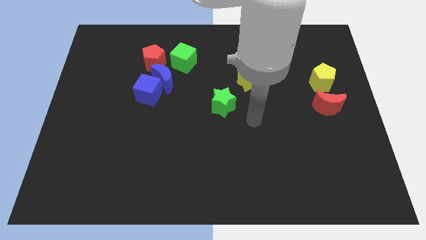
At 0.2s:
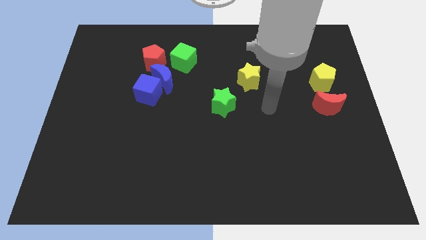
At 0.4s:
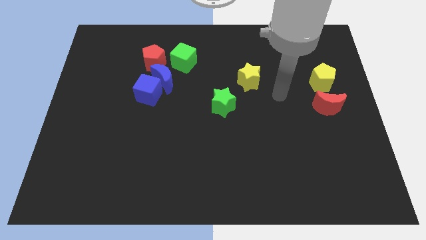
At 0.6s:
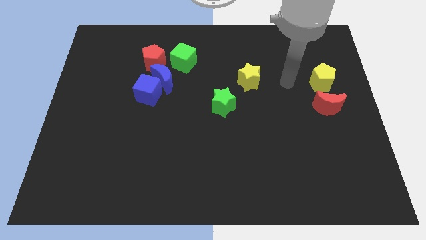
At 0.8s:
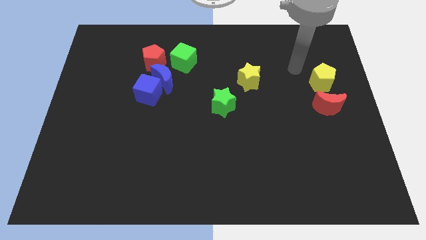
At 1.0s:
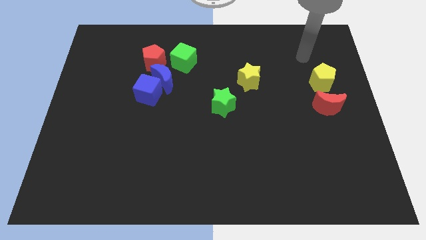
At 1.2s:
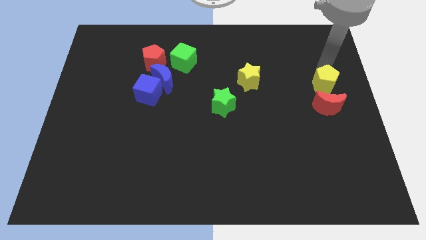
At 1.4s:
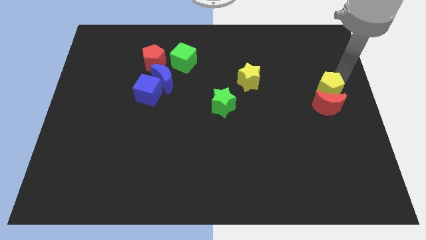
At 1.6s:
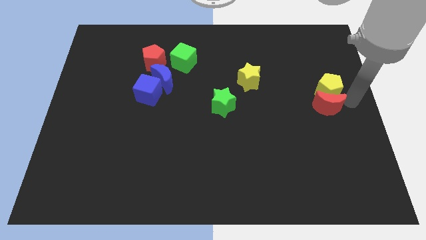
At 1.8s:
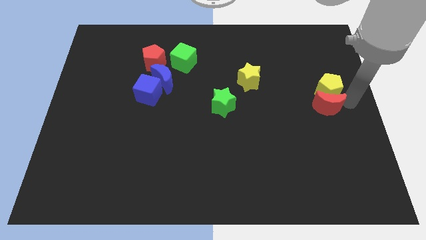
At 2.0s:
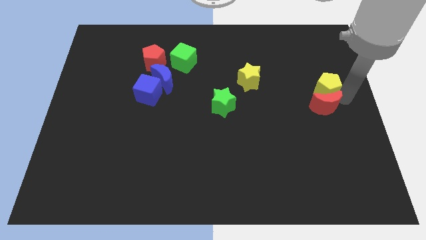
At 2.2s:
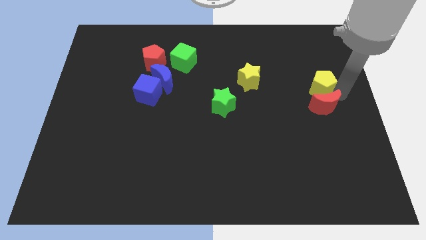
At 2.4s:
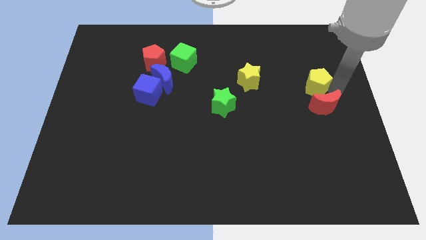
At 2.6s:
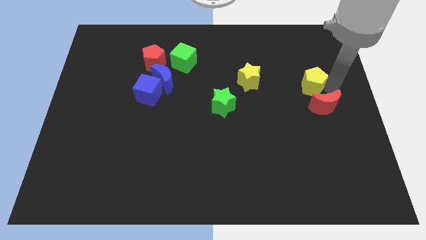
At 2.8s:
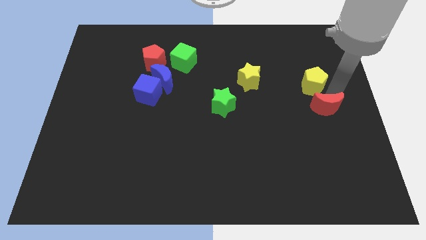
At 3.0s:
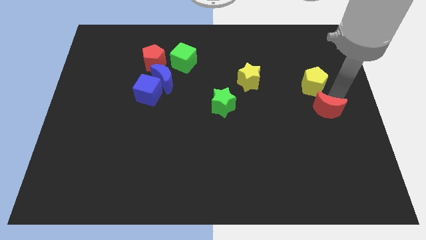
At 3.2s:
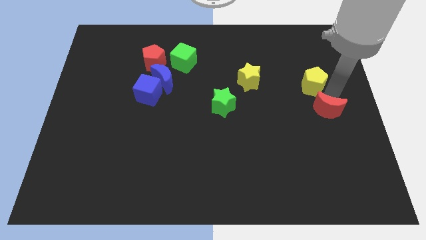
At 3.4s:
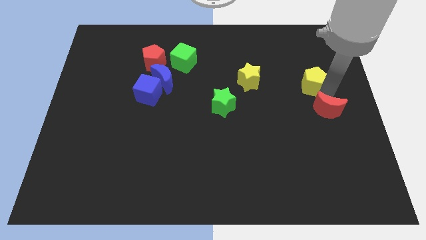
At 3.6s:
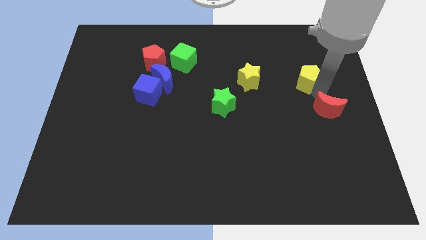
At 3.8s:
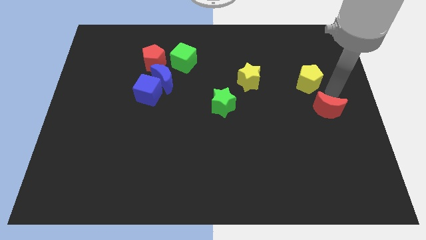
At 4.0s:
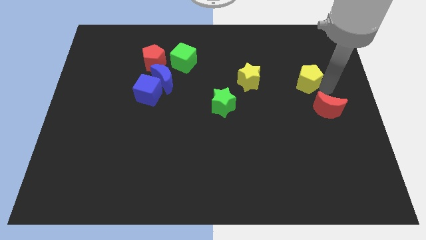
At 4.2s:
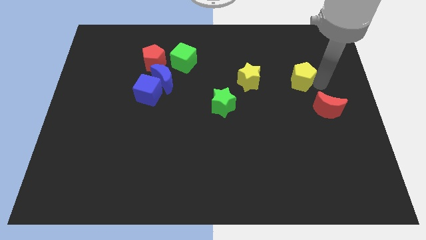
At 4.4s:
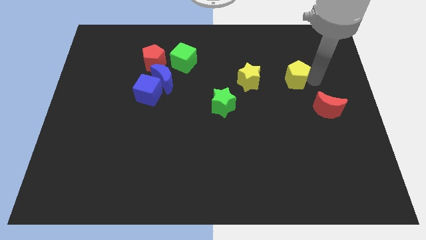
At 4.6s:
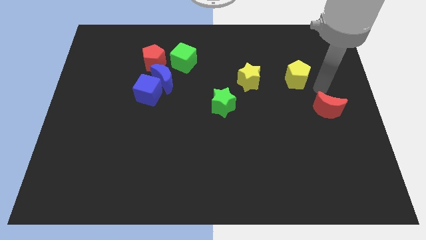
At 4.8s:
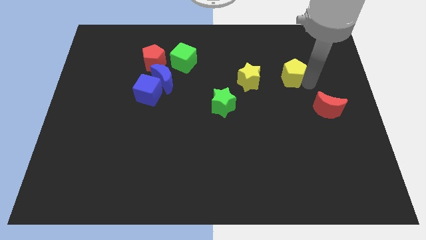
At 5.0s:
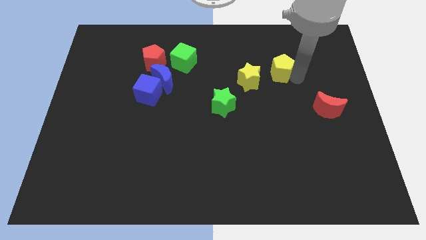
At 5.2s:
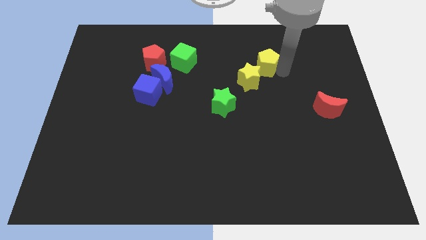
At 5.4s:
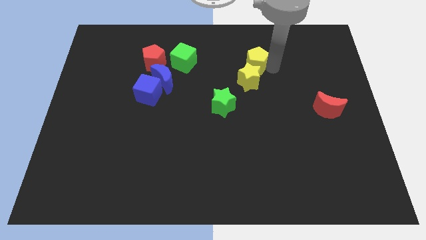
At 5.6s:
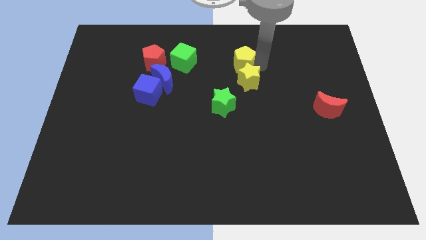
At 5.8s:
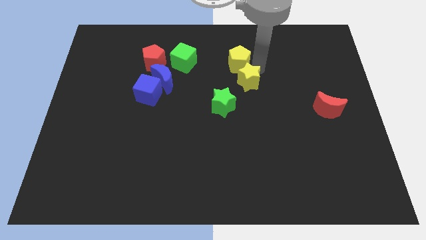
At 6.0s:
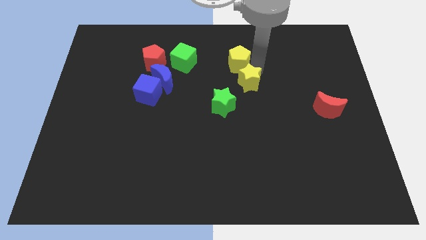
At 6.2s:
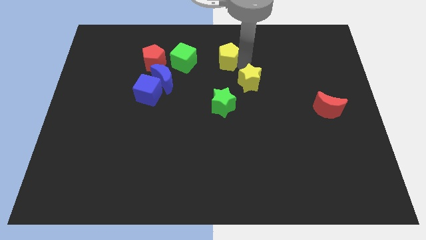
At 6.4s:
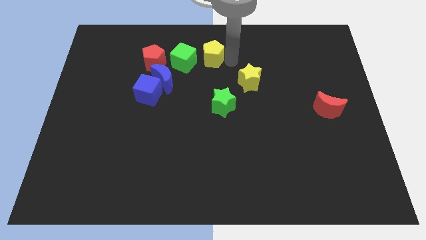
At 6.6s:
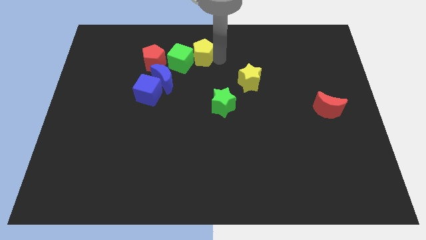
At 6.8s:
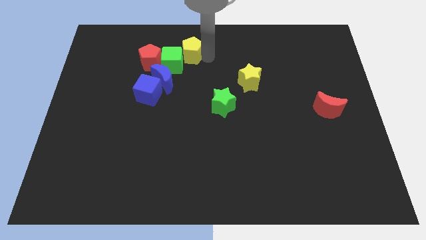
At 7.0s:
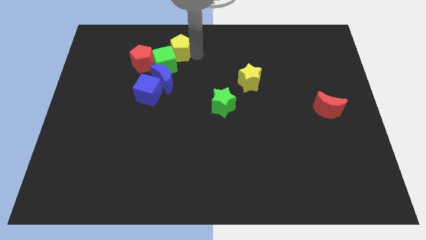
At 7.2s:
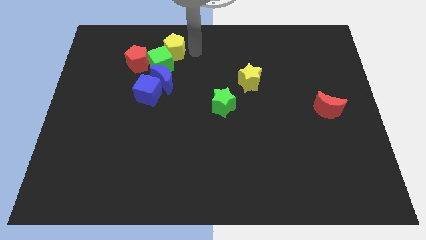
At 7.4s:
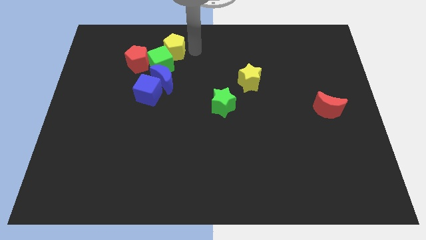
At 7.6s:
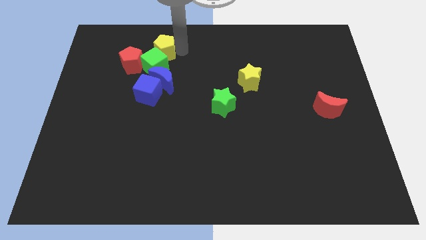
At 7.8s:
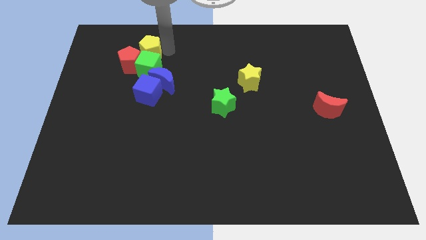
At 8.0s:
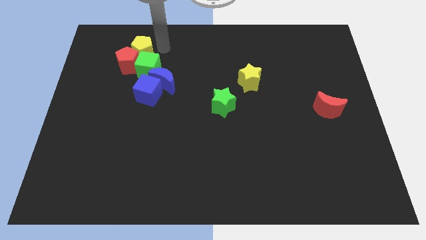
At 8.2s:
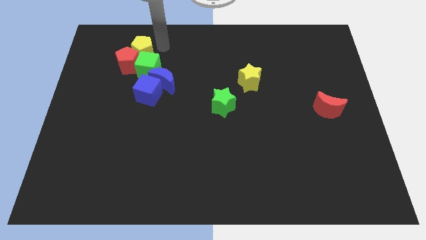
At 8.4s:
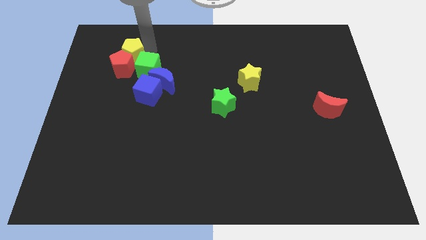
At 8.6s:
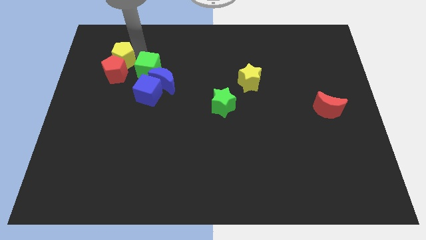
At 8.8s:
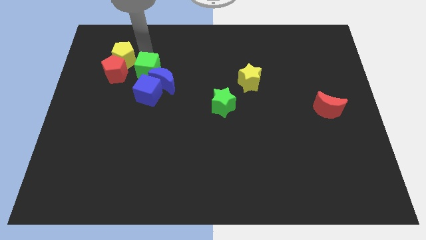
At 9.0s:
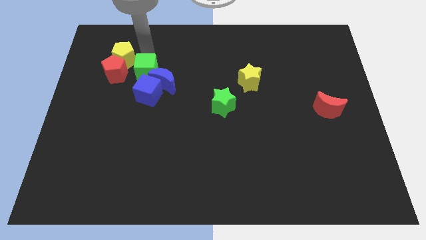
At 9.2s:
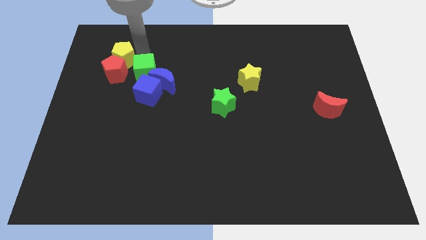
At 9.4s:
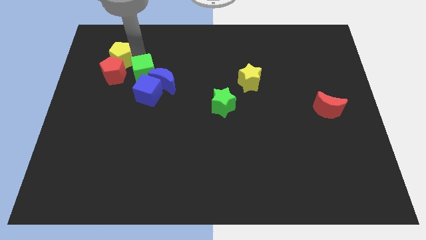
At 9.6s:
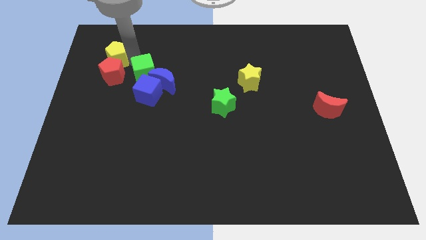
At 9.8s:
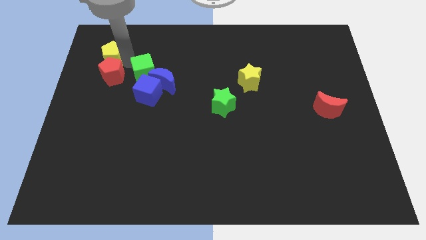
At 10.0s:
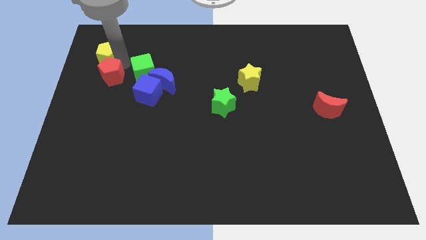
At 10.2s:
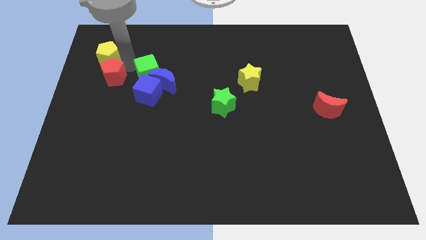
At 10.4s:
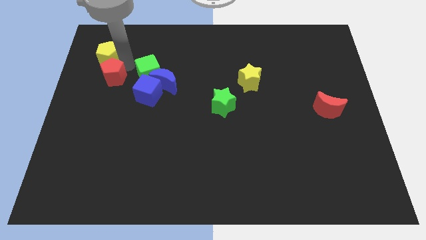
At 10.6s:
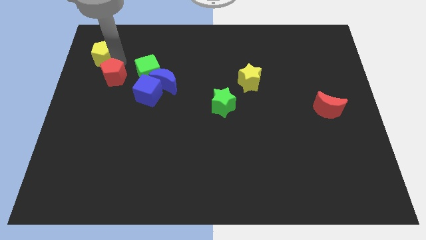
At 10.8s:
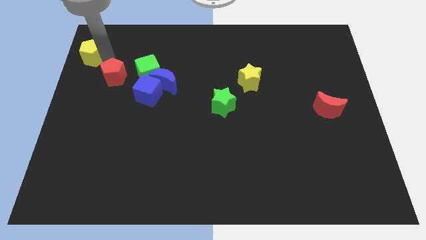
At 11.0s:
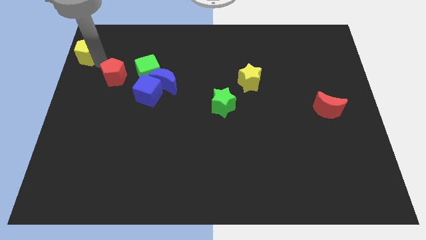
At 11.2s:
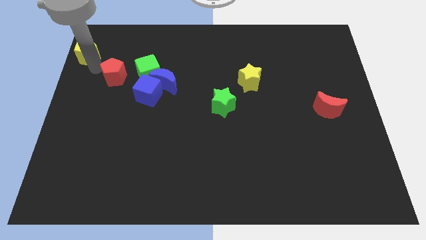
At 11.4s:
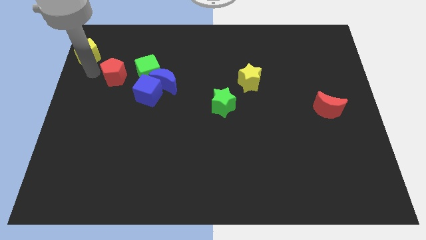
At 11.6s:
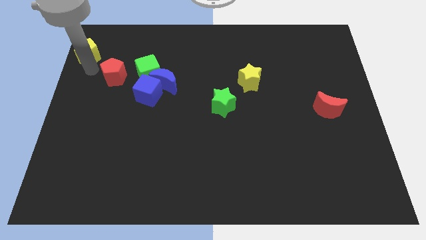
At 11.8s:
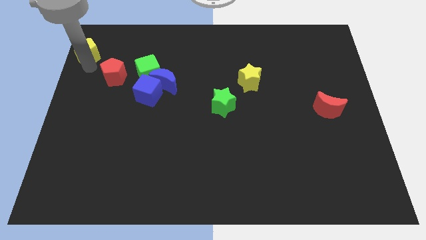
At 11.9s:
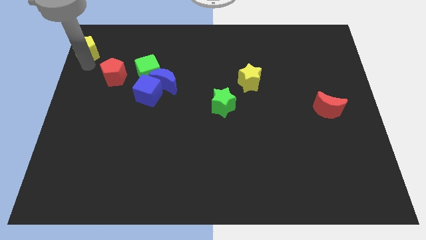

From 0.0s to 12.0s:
push the yellow pentagon to the top left corner
